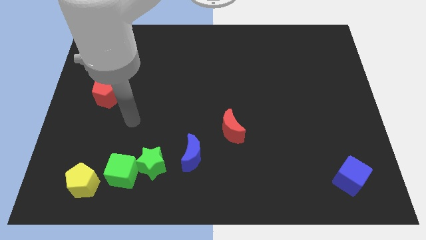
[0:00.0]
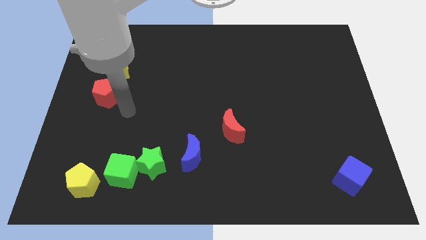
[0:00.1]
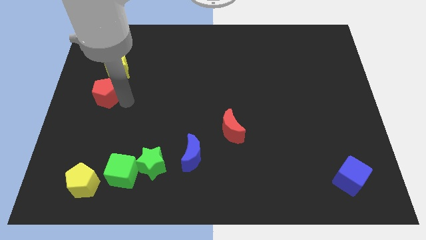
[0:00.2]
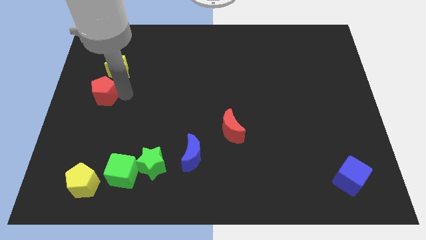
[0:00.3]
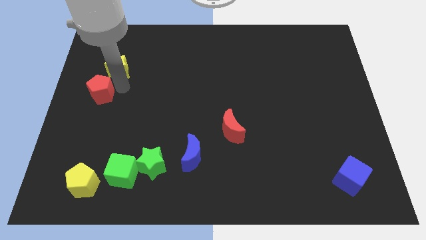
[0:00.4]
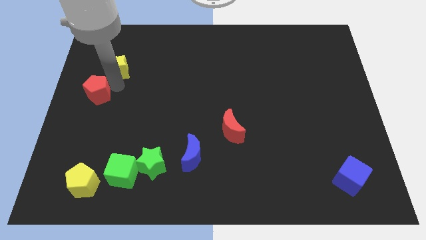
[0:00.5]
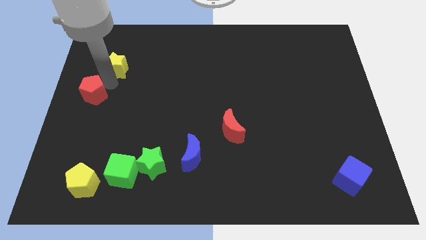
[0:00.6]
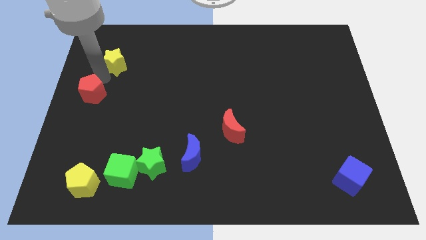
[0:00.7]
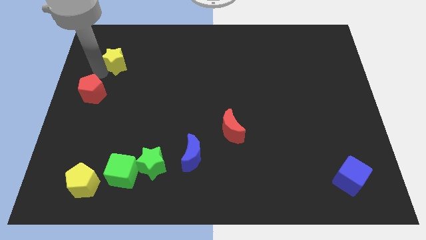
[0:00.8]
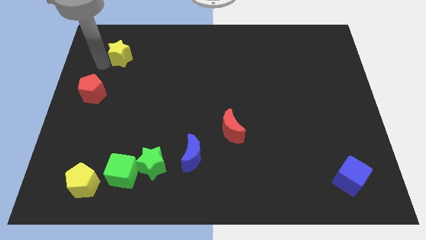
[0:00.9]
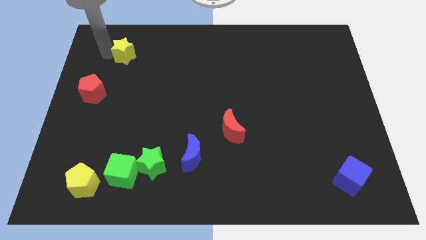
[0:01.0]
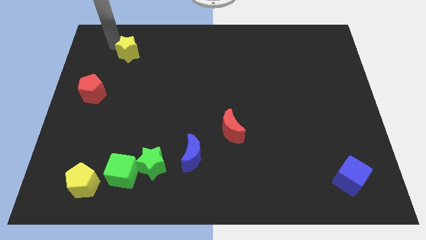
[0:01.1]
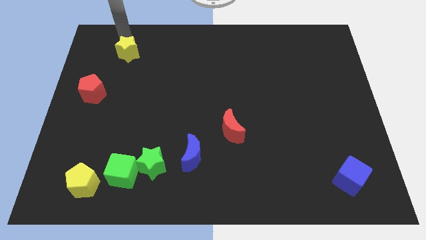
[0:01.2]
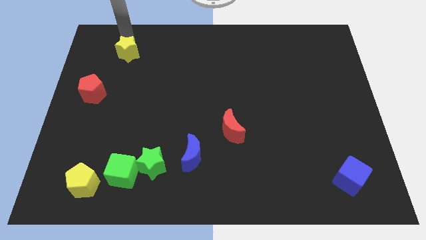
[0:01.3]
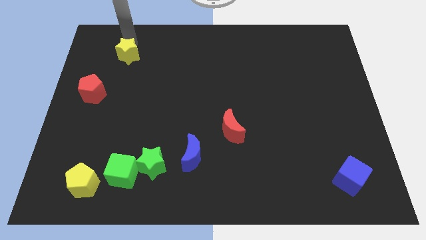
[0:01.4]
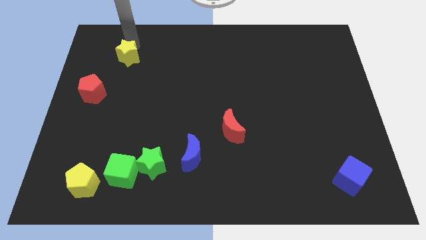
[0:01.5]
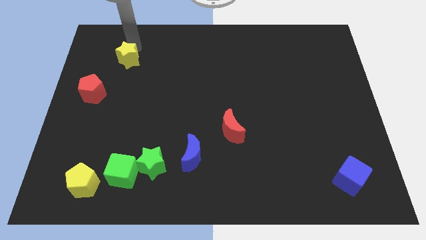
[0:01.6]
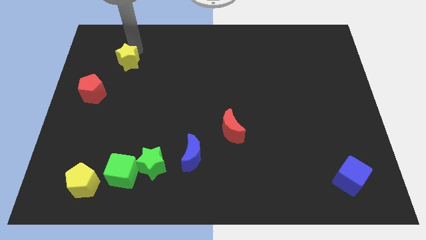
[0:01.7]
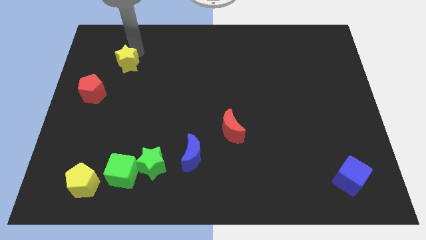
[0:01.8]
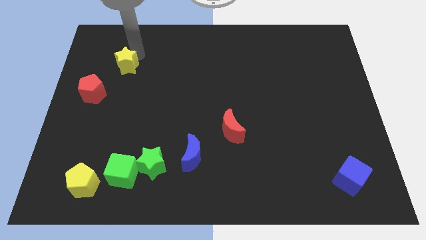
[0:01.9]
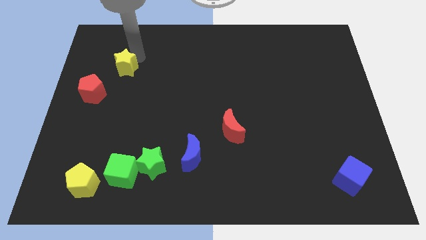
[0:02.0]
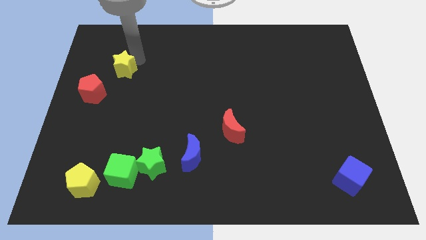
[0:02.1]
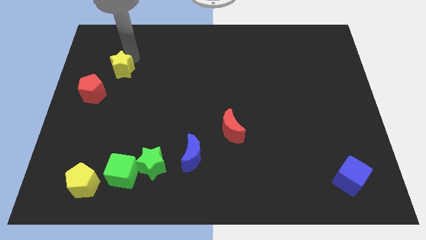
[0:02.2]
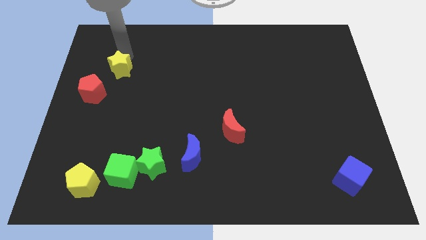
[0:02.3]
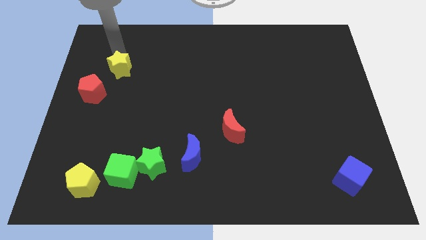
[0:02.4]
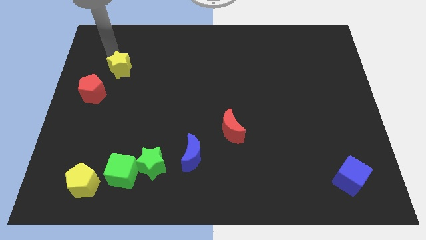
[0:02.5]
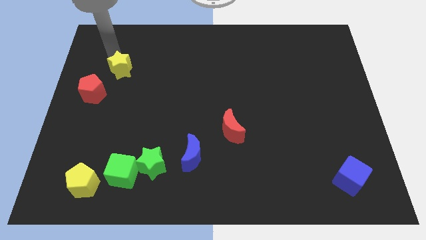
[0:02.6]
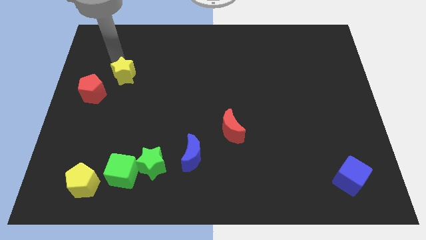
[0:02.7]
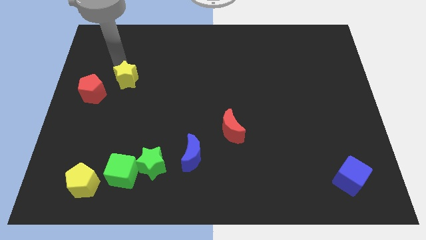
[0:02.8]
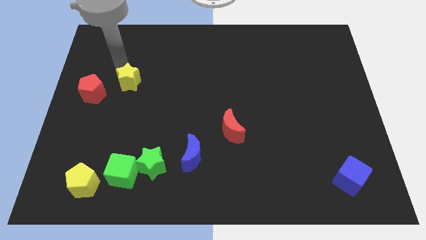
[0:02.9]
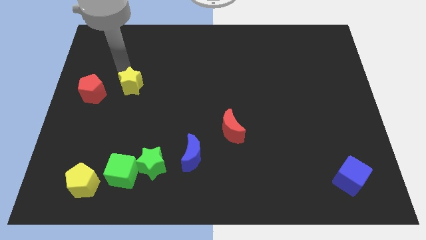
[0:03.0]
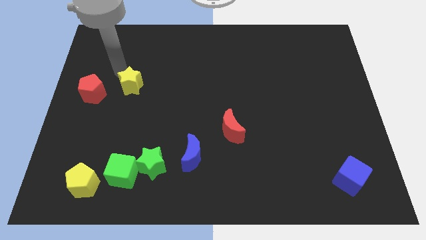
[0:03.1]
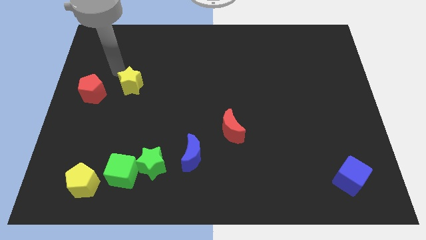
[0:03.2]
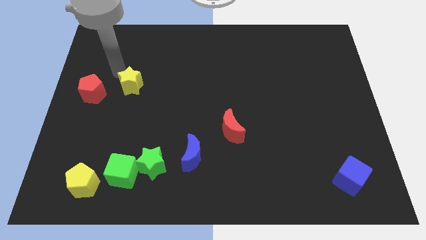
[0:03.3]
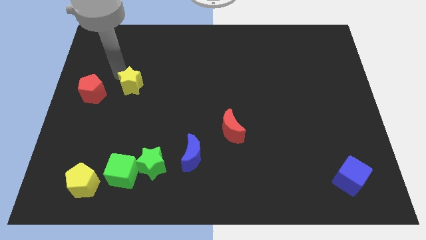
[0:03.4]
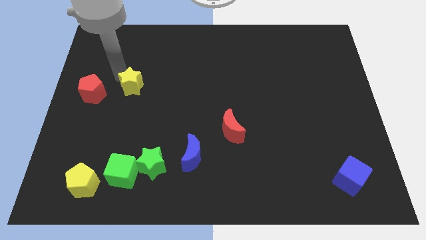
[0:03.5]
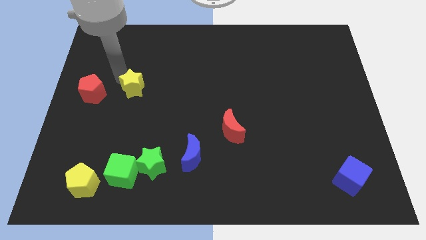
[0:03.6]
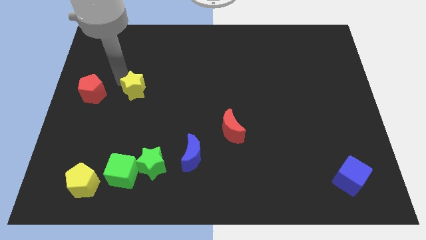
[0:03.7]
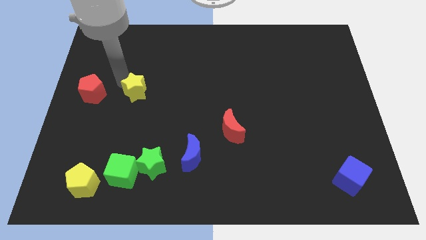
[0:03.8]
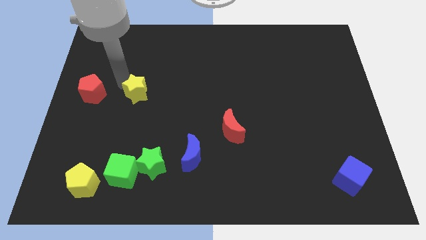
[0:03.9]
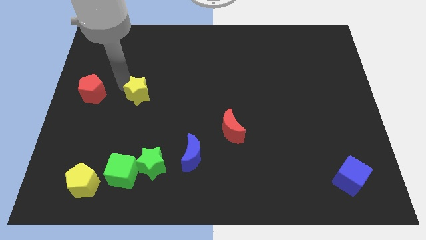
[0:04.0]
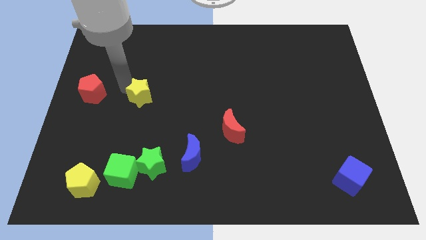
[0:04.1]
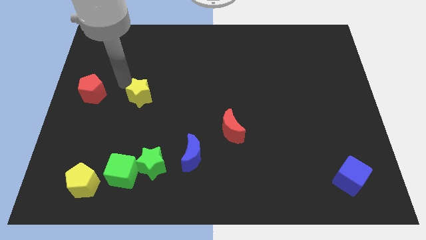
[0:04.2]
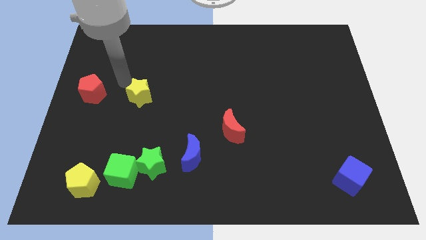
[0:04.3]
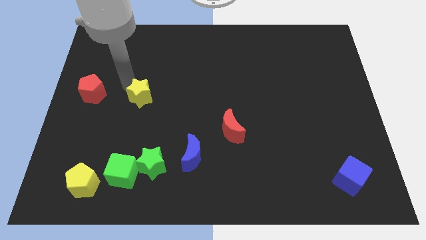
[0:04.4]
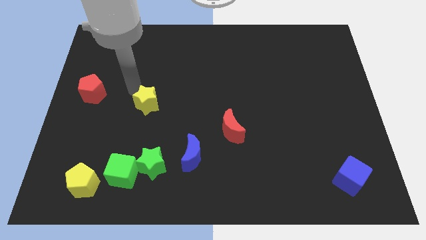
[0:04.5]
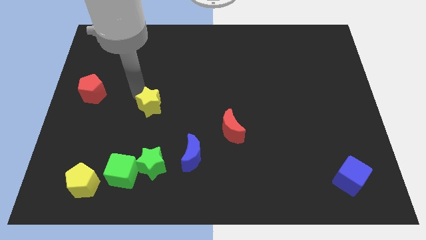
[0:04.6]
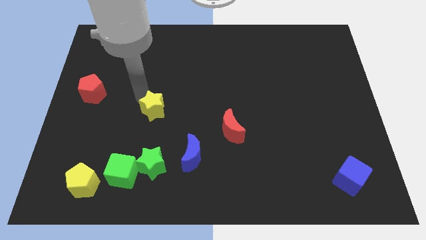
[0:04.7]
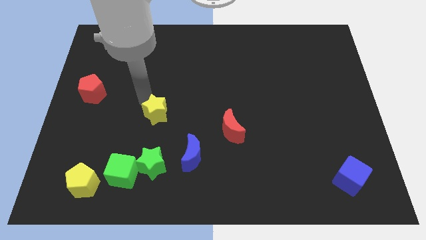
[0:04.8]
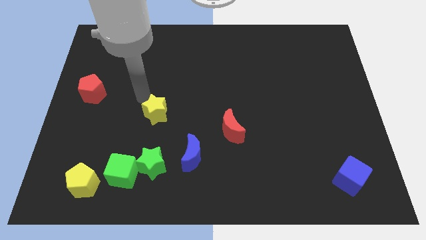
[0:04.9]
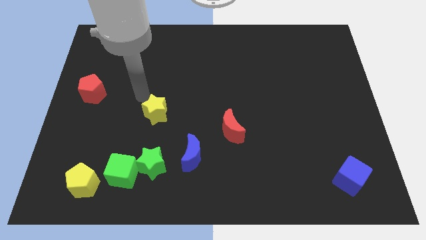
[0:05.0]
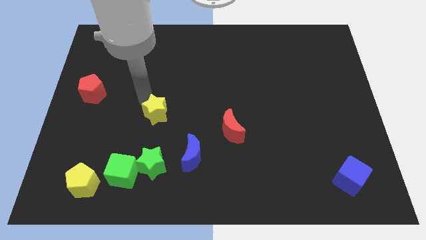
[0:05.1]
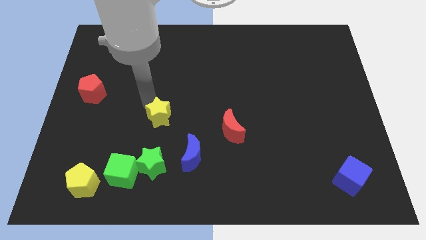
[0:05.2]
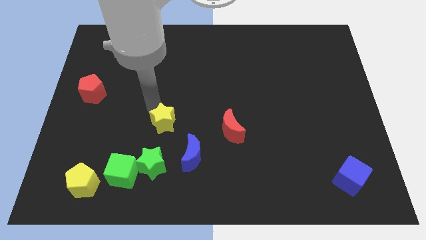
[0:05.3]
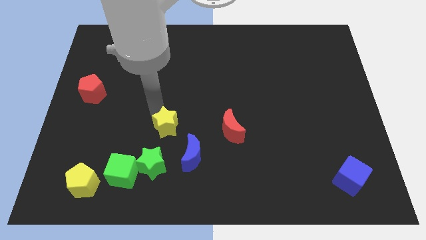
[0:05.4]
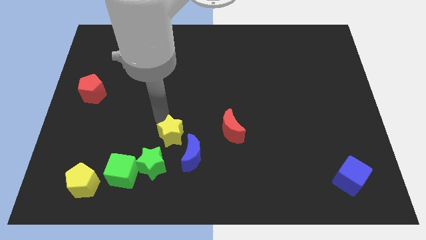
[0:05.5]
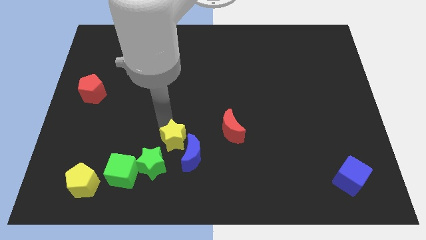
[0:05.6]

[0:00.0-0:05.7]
push the yellow star to the blue moon

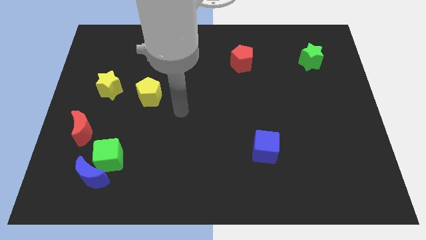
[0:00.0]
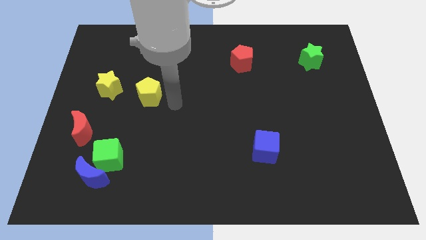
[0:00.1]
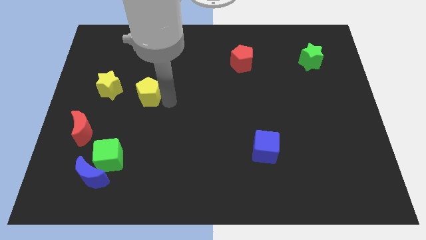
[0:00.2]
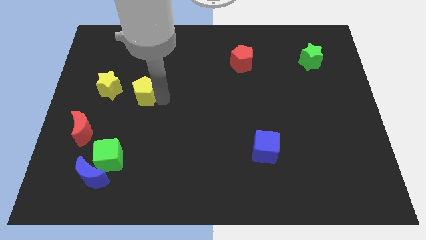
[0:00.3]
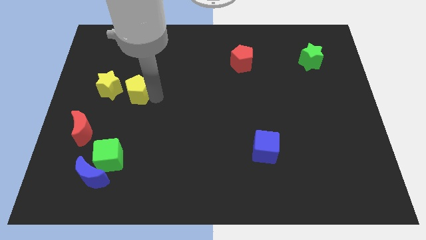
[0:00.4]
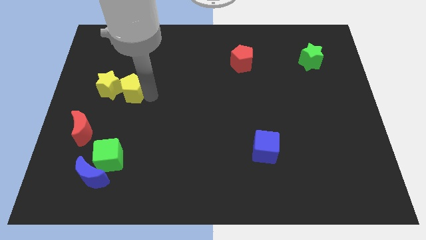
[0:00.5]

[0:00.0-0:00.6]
move the yellow pentagon close to the yellow star
